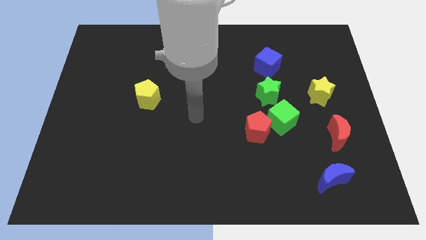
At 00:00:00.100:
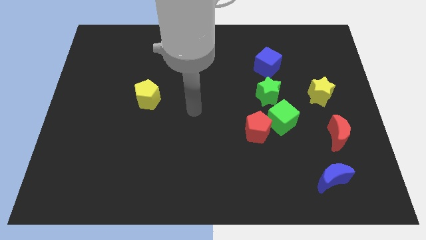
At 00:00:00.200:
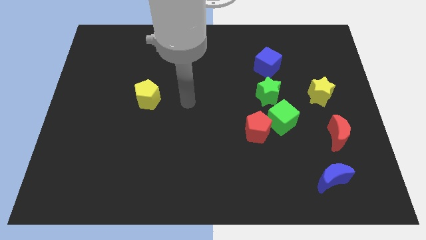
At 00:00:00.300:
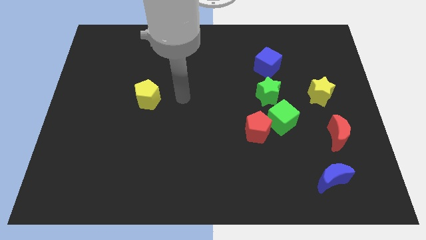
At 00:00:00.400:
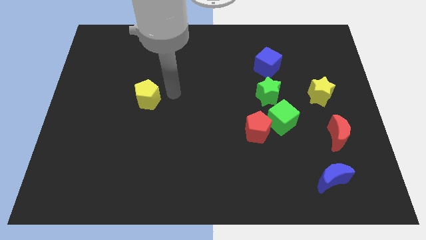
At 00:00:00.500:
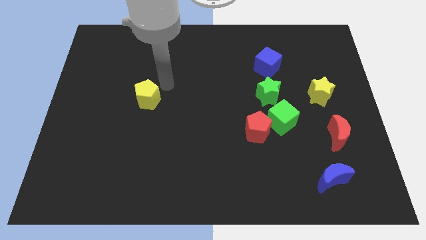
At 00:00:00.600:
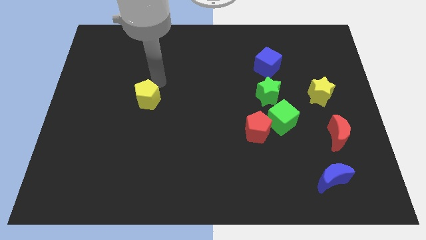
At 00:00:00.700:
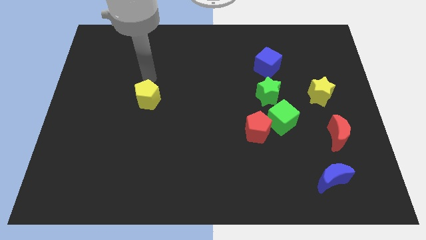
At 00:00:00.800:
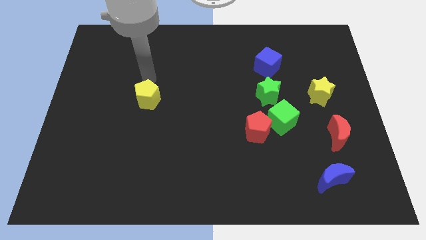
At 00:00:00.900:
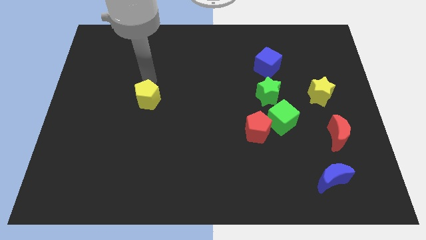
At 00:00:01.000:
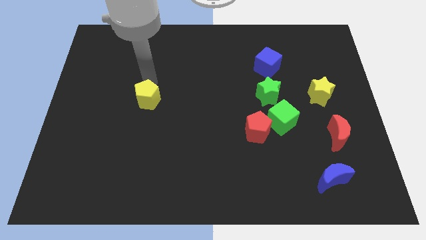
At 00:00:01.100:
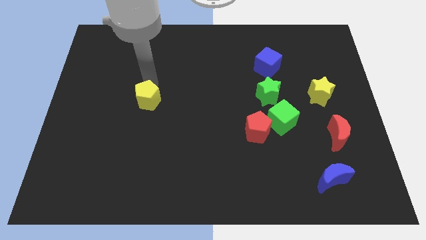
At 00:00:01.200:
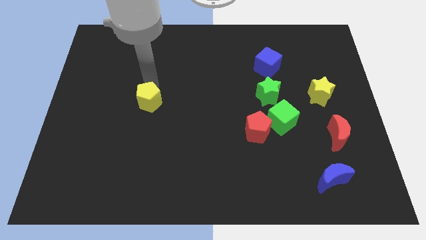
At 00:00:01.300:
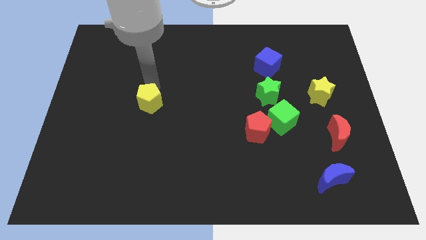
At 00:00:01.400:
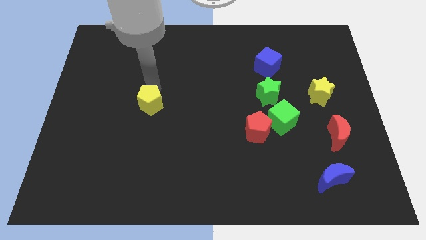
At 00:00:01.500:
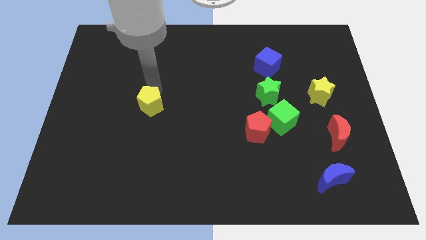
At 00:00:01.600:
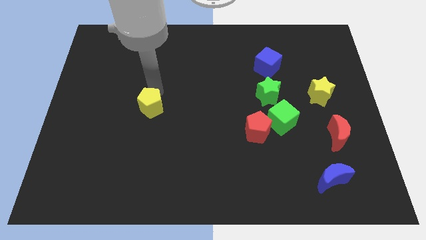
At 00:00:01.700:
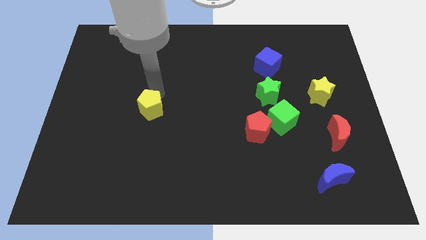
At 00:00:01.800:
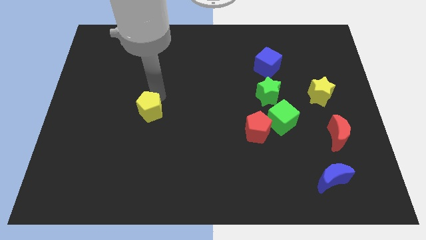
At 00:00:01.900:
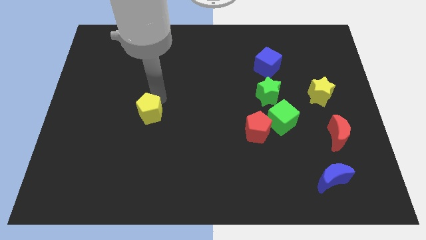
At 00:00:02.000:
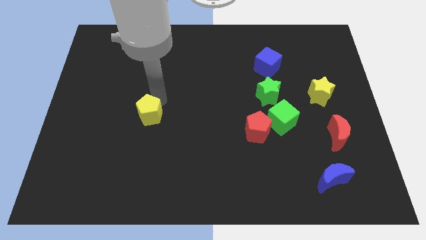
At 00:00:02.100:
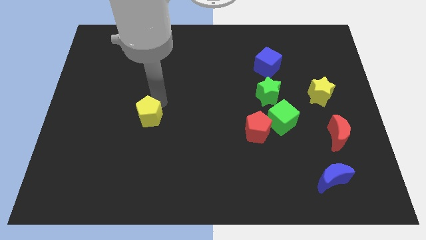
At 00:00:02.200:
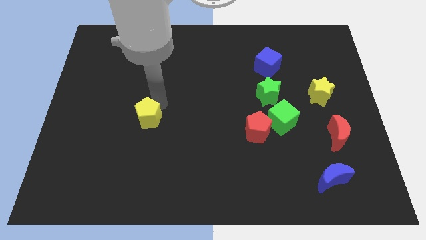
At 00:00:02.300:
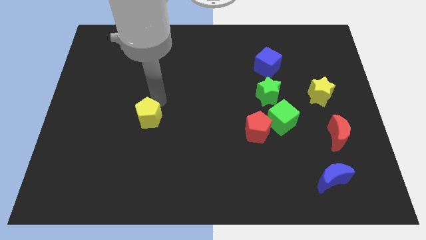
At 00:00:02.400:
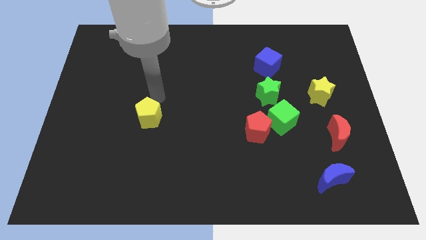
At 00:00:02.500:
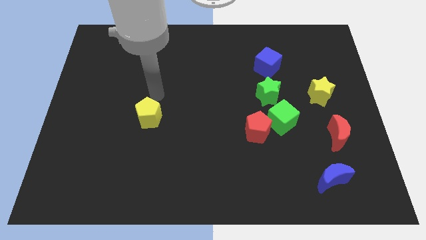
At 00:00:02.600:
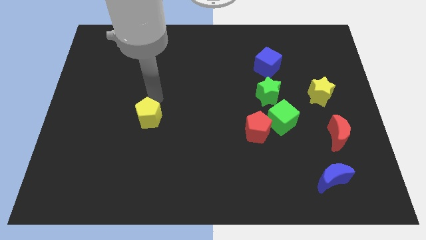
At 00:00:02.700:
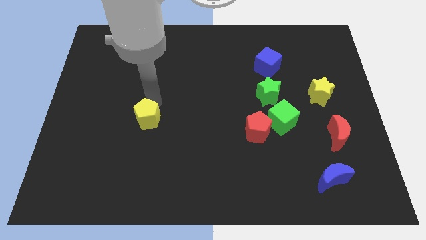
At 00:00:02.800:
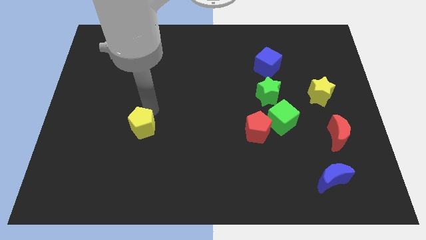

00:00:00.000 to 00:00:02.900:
slightly slide the yellow pentagon down

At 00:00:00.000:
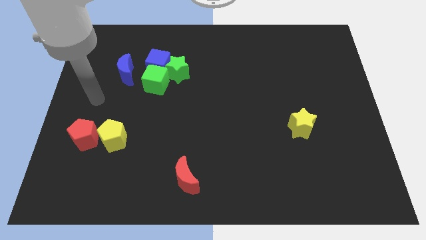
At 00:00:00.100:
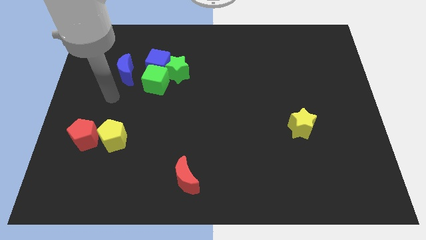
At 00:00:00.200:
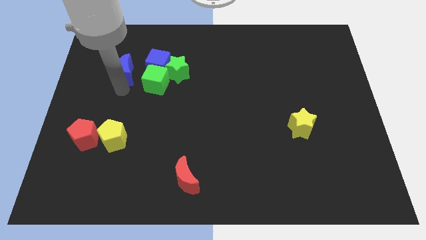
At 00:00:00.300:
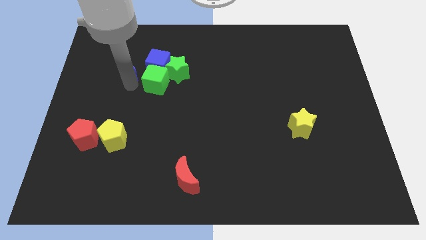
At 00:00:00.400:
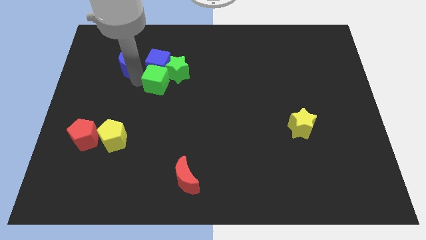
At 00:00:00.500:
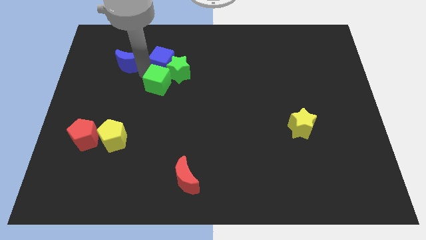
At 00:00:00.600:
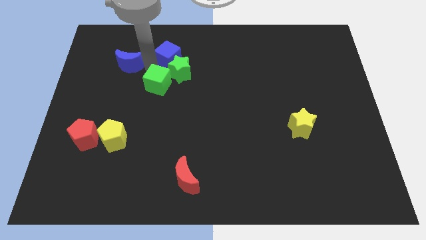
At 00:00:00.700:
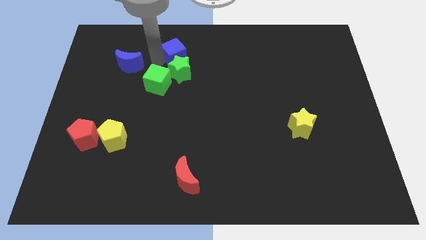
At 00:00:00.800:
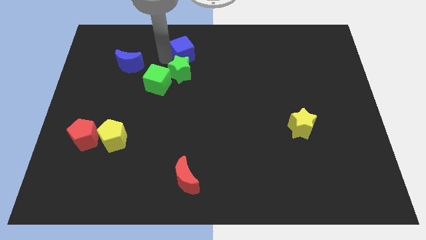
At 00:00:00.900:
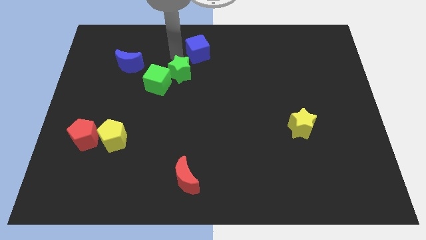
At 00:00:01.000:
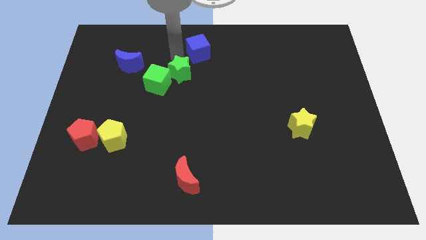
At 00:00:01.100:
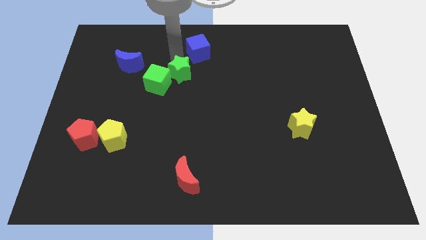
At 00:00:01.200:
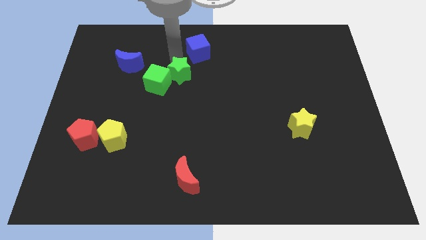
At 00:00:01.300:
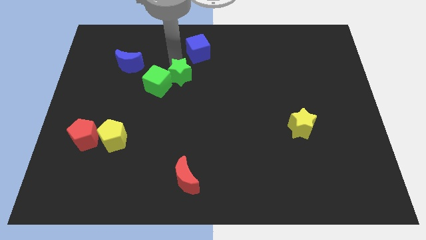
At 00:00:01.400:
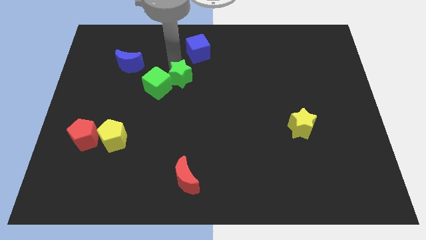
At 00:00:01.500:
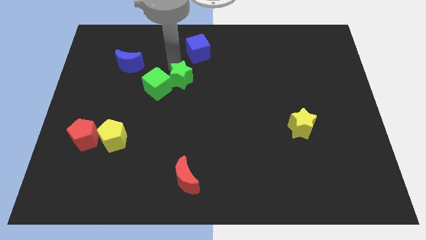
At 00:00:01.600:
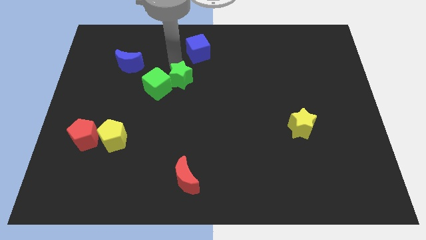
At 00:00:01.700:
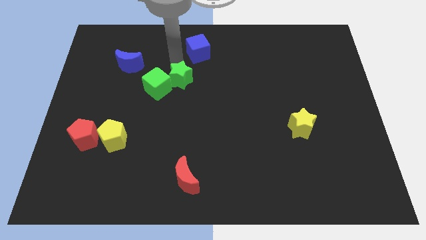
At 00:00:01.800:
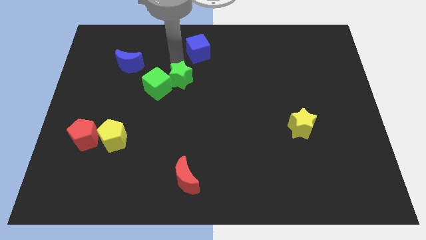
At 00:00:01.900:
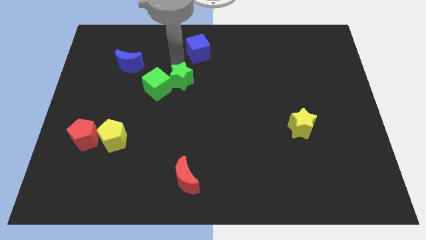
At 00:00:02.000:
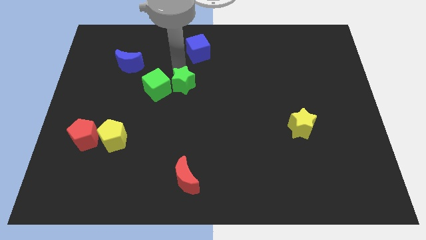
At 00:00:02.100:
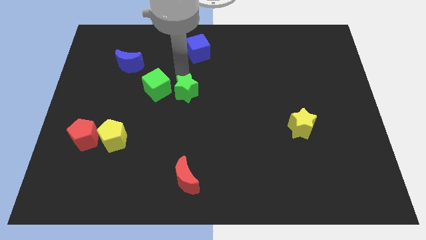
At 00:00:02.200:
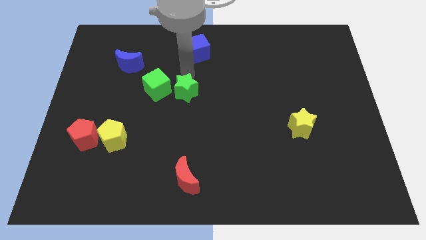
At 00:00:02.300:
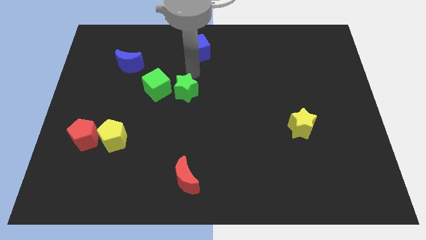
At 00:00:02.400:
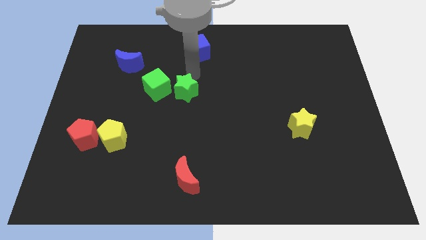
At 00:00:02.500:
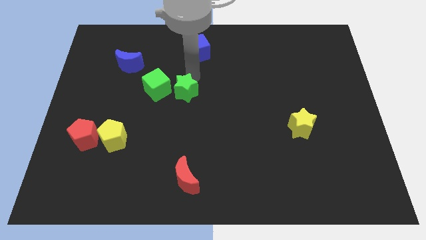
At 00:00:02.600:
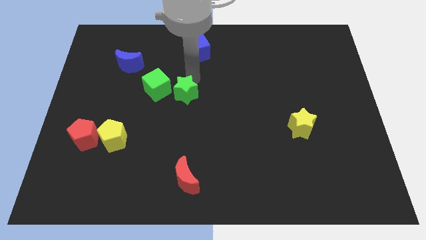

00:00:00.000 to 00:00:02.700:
slightly move the green star down

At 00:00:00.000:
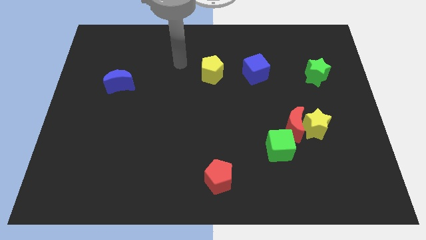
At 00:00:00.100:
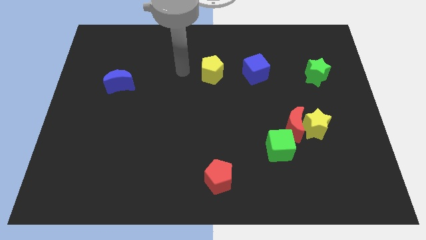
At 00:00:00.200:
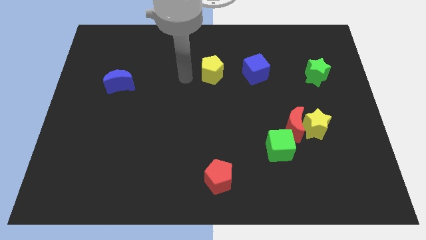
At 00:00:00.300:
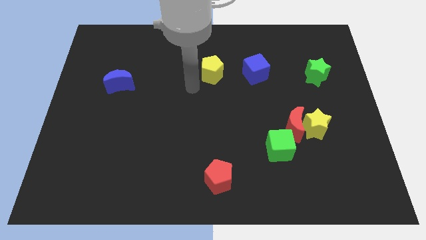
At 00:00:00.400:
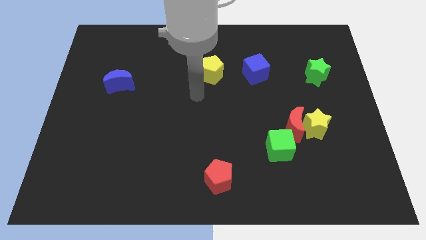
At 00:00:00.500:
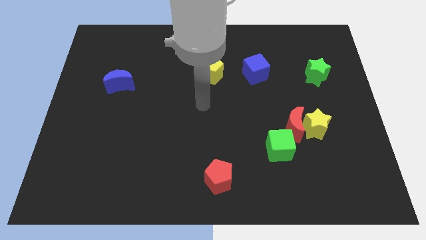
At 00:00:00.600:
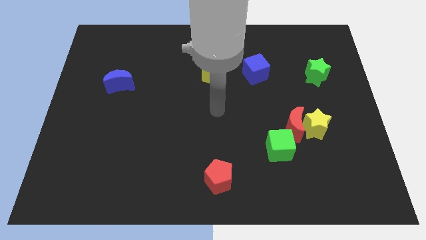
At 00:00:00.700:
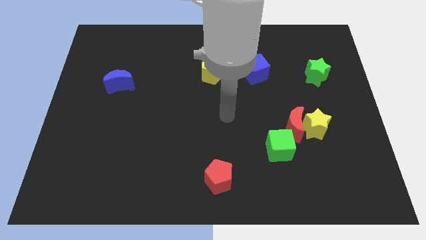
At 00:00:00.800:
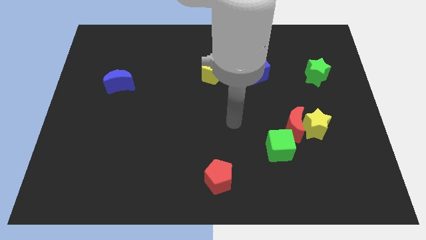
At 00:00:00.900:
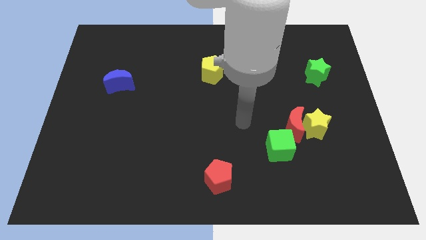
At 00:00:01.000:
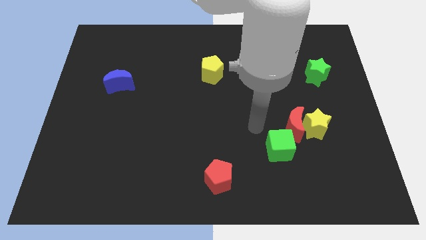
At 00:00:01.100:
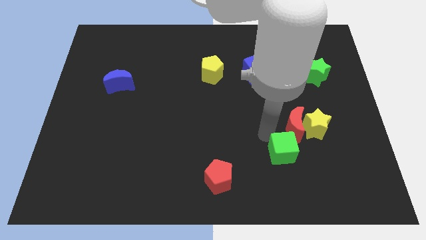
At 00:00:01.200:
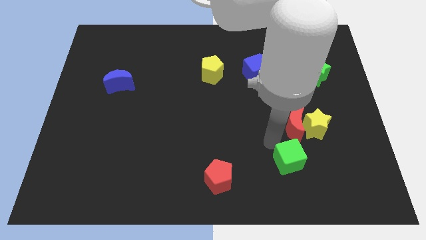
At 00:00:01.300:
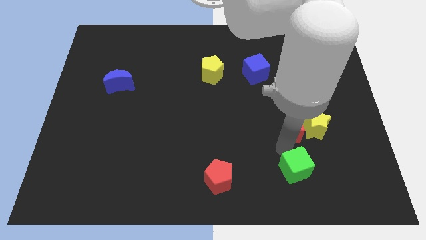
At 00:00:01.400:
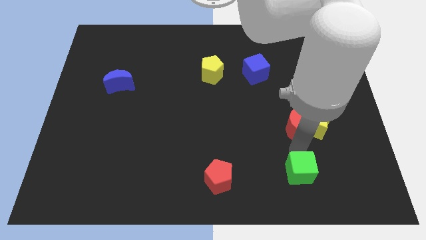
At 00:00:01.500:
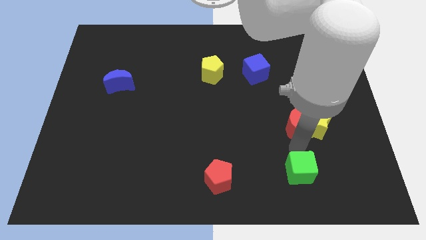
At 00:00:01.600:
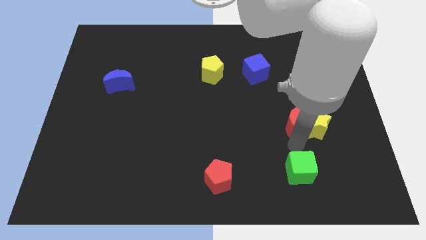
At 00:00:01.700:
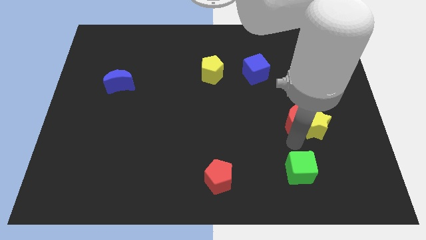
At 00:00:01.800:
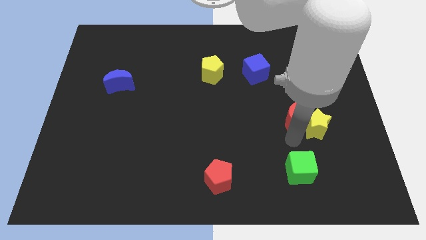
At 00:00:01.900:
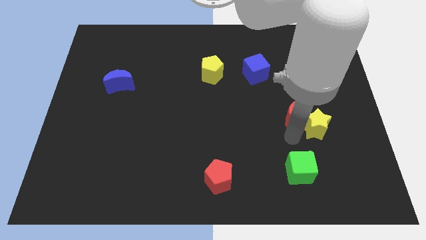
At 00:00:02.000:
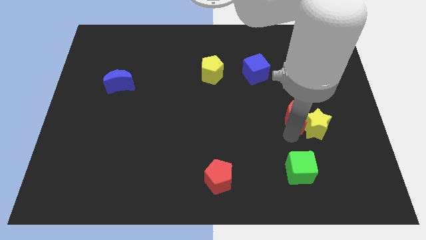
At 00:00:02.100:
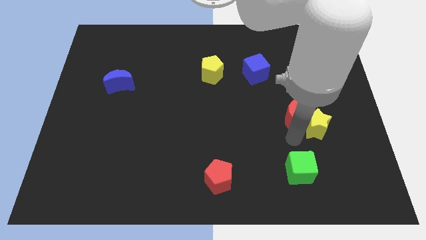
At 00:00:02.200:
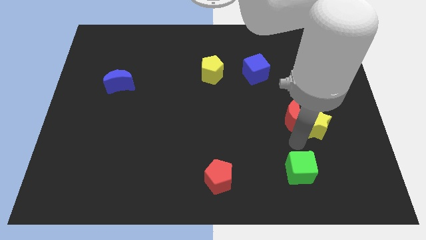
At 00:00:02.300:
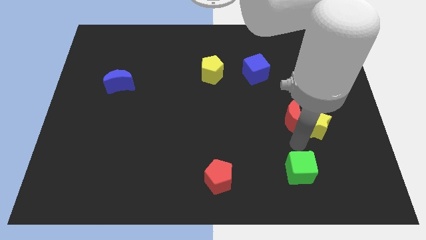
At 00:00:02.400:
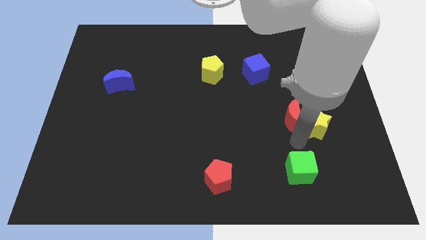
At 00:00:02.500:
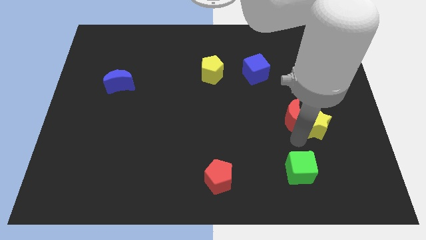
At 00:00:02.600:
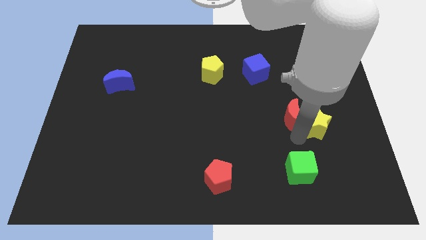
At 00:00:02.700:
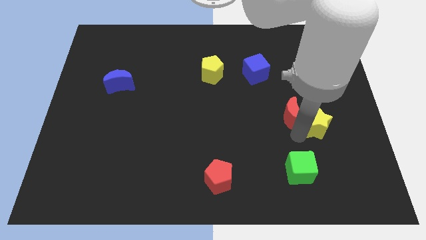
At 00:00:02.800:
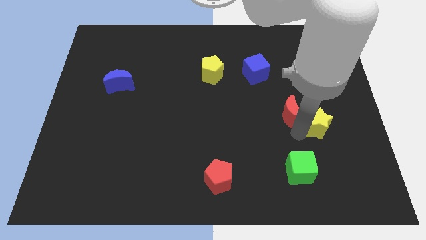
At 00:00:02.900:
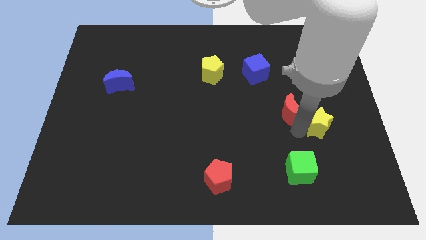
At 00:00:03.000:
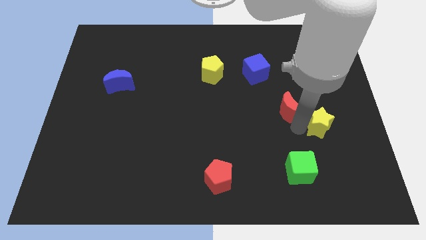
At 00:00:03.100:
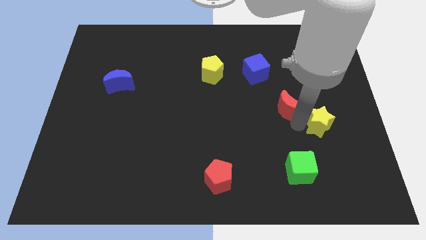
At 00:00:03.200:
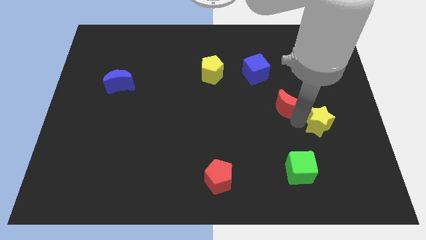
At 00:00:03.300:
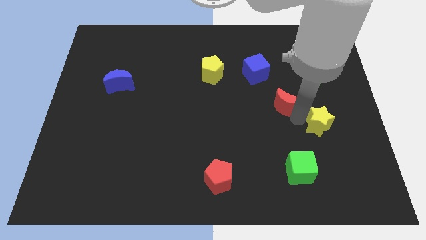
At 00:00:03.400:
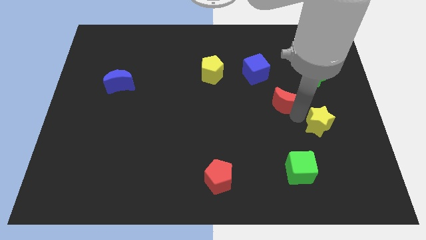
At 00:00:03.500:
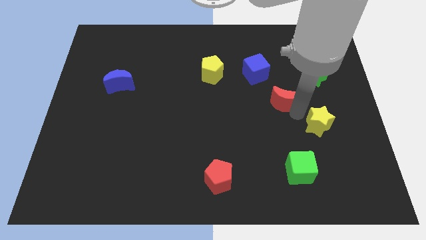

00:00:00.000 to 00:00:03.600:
slightly slide the red moon upwards
